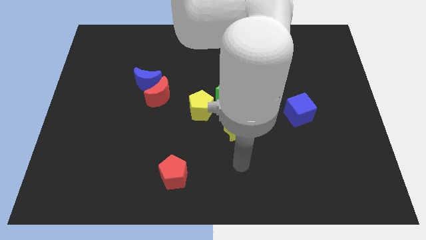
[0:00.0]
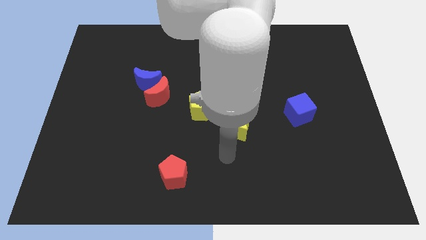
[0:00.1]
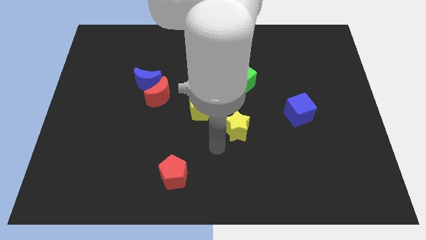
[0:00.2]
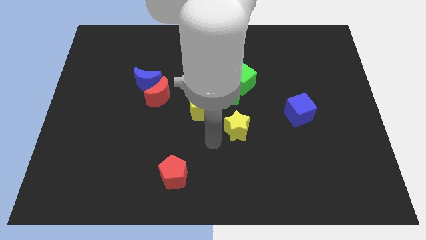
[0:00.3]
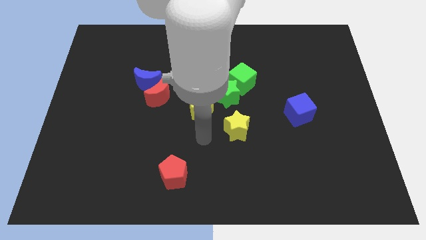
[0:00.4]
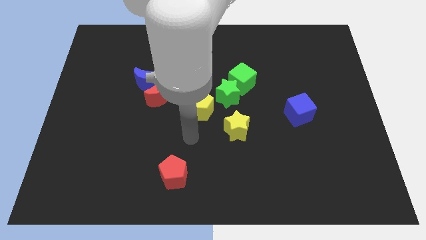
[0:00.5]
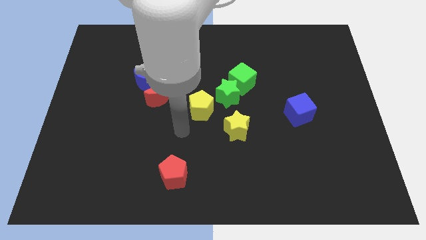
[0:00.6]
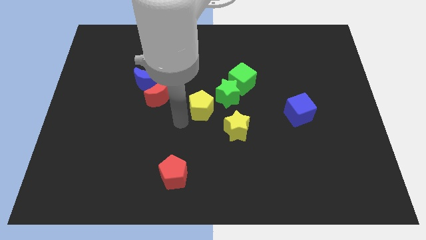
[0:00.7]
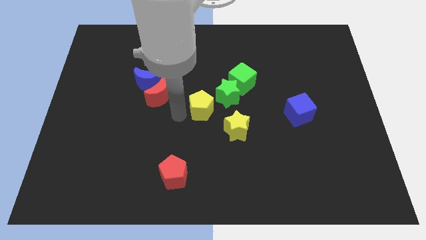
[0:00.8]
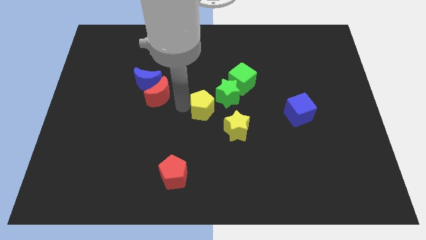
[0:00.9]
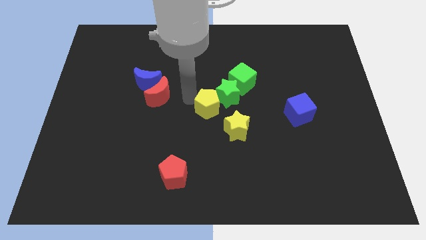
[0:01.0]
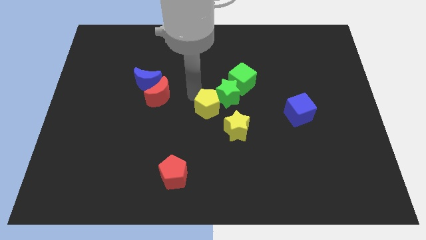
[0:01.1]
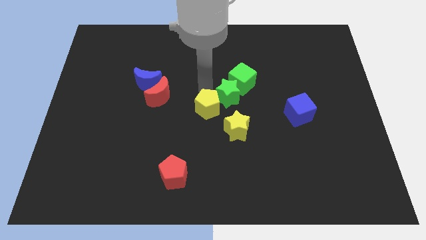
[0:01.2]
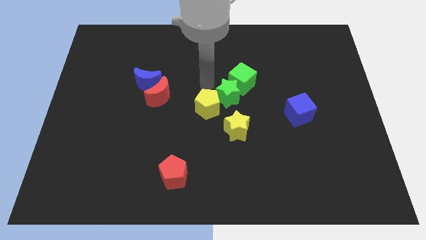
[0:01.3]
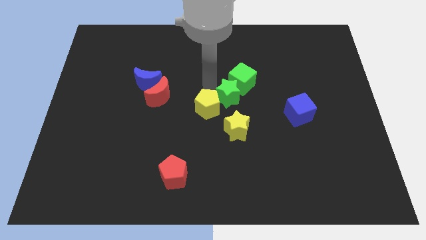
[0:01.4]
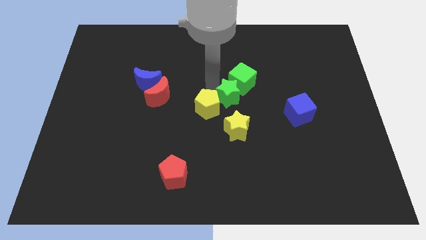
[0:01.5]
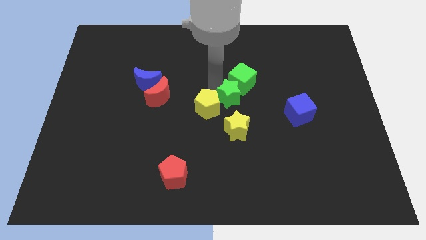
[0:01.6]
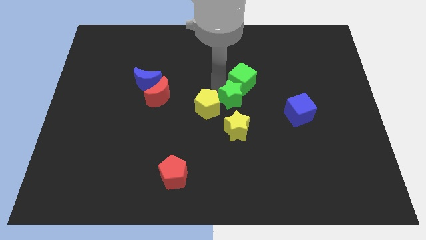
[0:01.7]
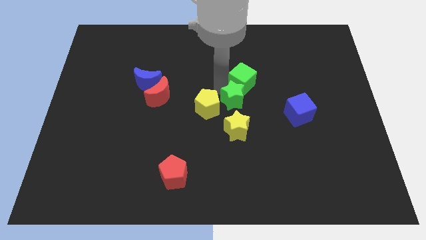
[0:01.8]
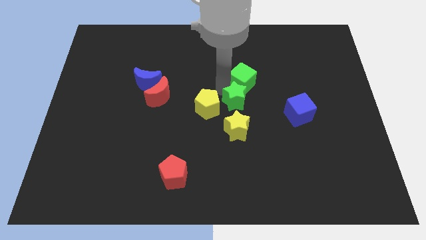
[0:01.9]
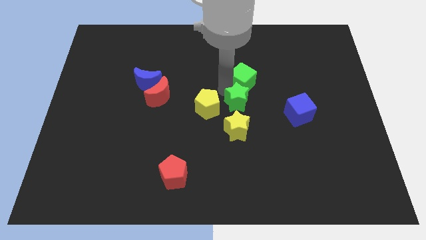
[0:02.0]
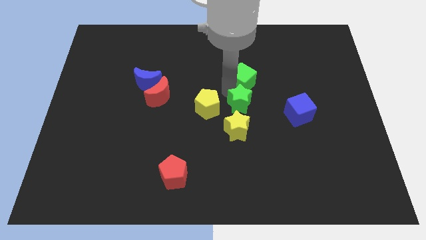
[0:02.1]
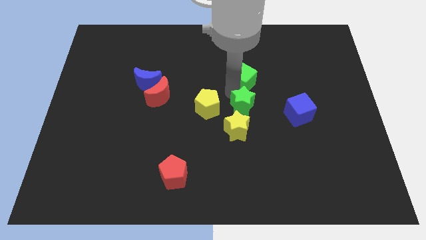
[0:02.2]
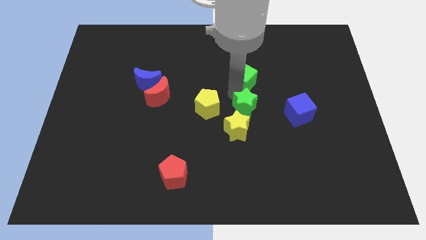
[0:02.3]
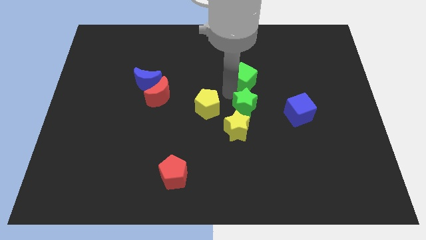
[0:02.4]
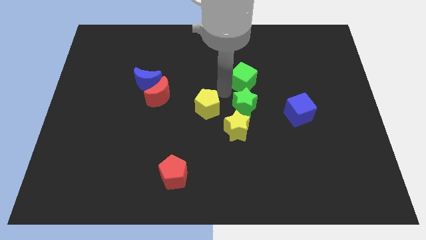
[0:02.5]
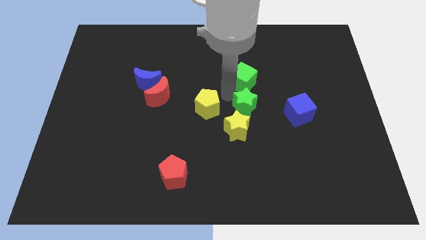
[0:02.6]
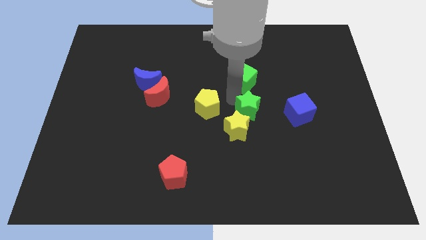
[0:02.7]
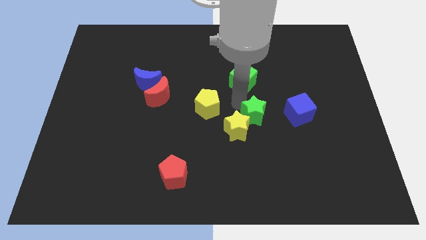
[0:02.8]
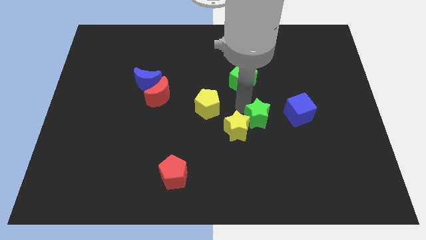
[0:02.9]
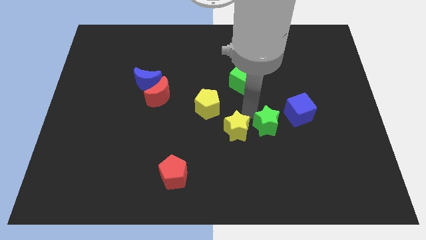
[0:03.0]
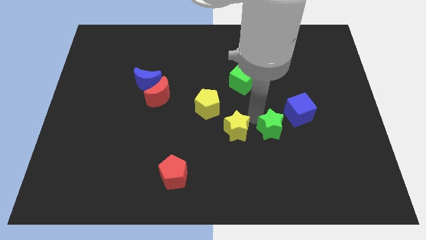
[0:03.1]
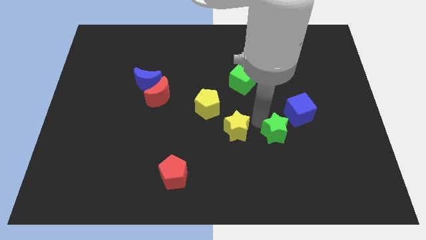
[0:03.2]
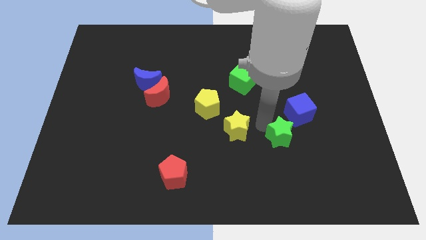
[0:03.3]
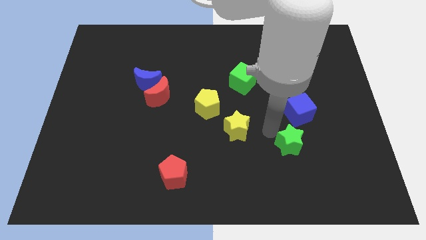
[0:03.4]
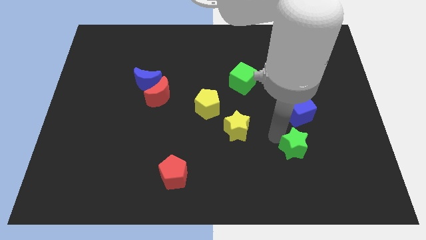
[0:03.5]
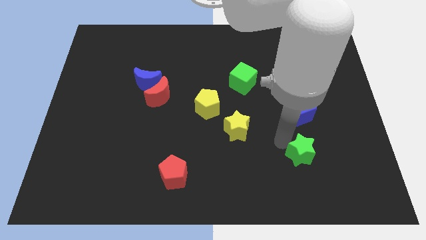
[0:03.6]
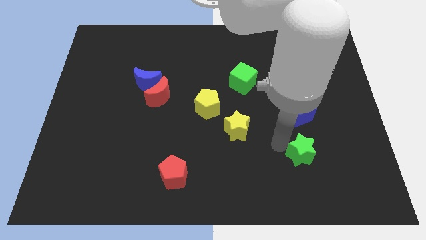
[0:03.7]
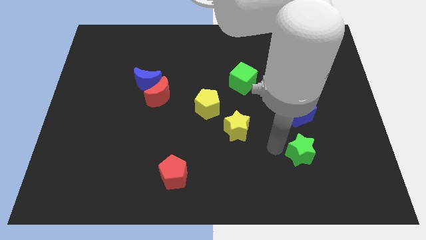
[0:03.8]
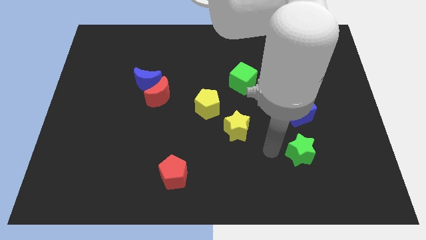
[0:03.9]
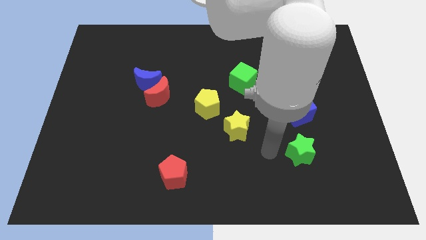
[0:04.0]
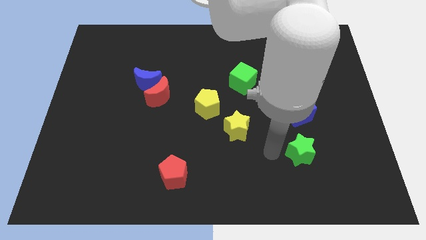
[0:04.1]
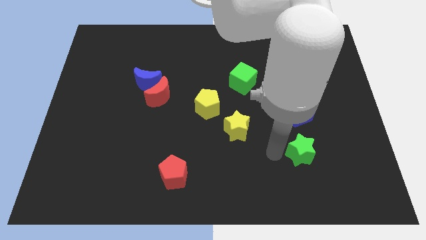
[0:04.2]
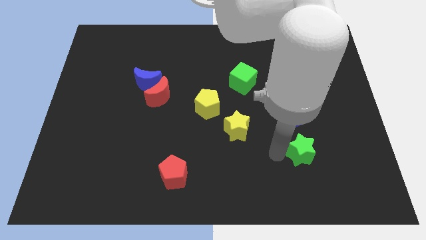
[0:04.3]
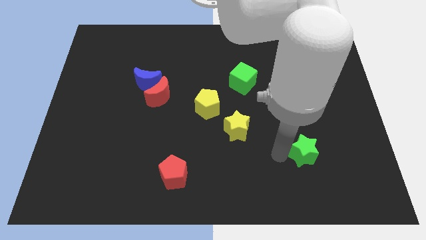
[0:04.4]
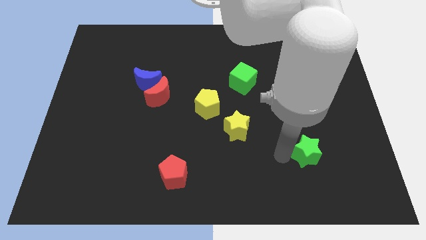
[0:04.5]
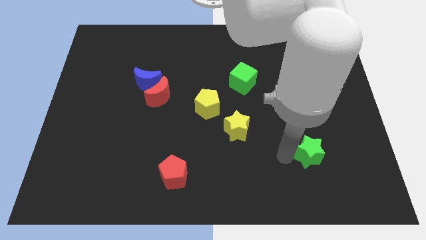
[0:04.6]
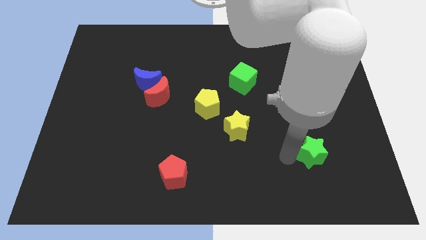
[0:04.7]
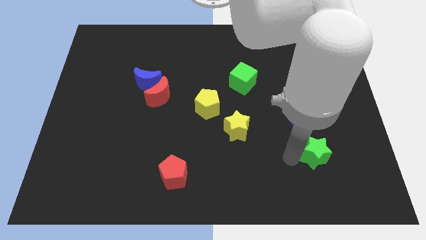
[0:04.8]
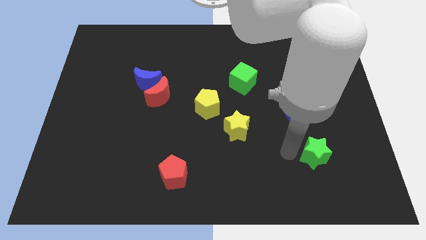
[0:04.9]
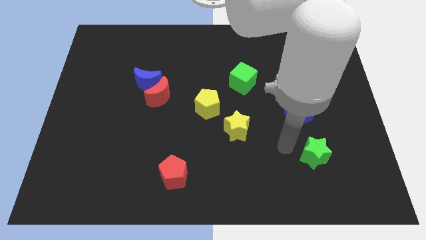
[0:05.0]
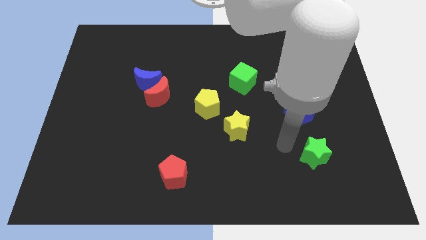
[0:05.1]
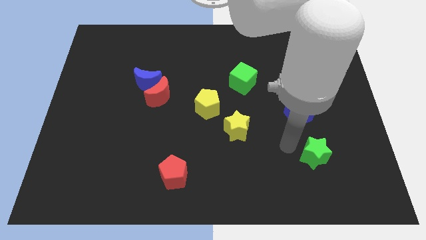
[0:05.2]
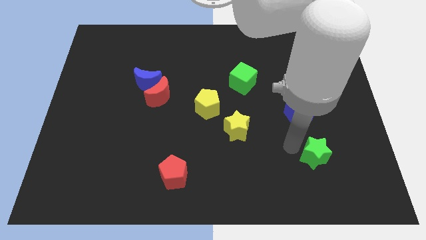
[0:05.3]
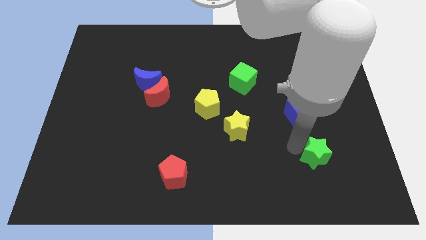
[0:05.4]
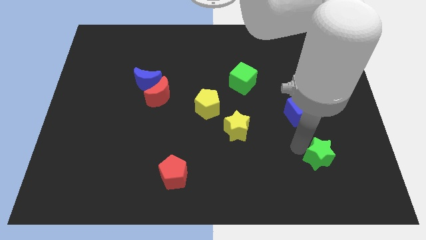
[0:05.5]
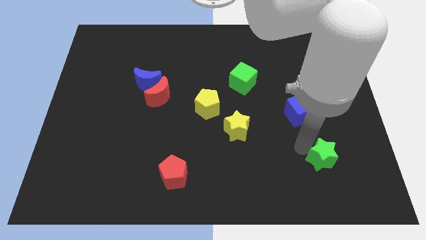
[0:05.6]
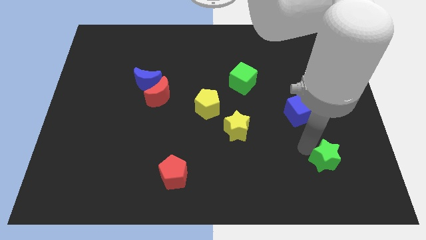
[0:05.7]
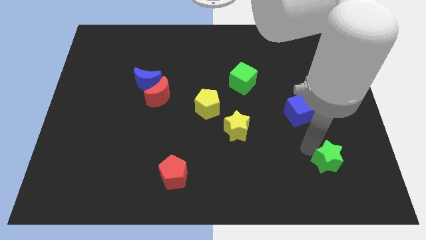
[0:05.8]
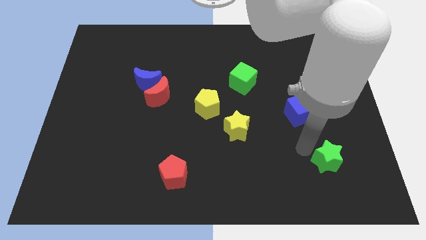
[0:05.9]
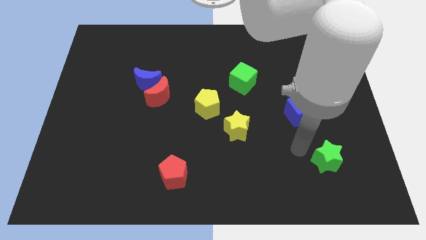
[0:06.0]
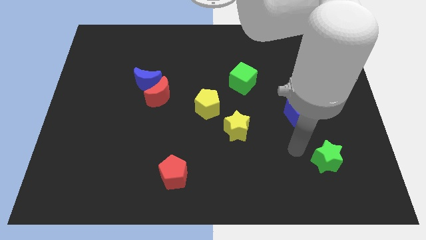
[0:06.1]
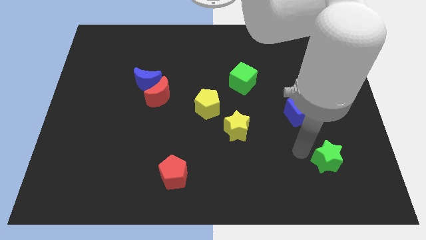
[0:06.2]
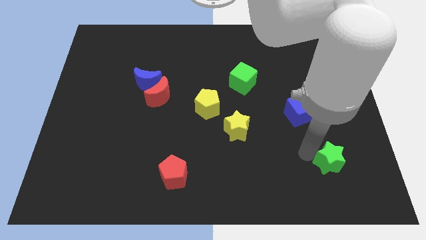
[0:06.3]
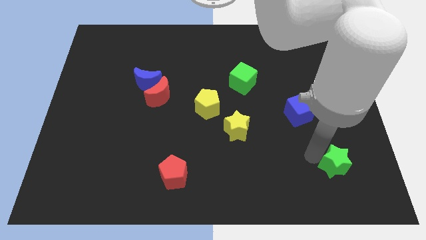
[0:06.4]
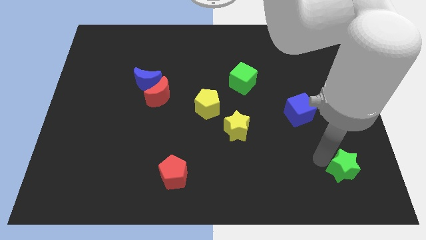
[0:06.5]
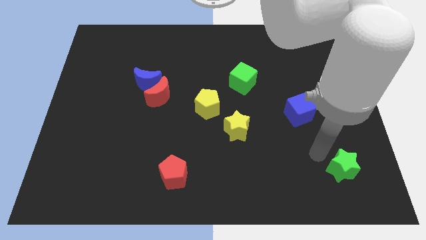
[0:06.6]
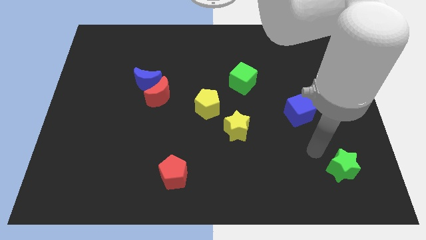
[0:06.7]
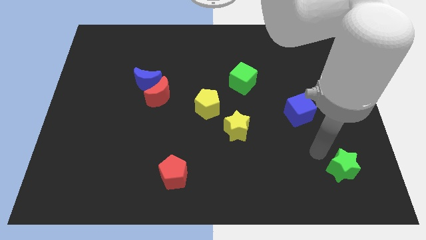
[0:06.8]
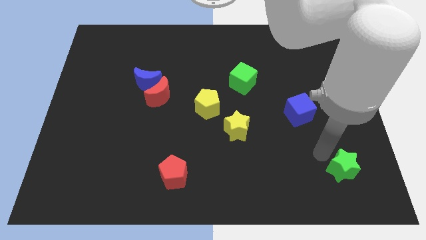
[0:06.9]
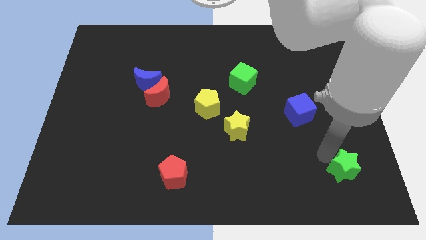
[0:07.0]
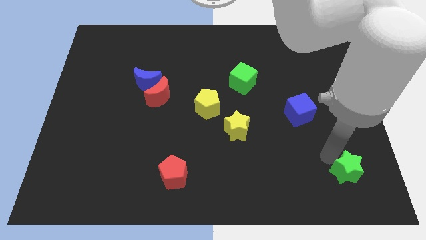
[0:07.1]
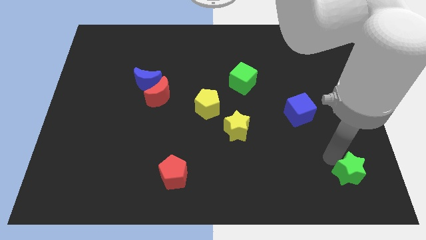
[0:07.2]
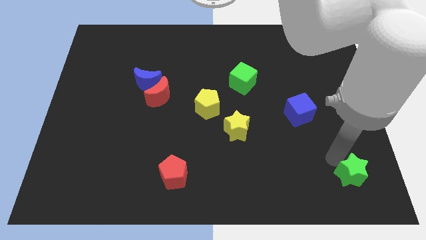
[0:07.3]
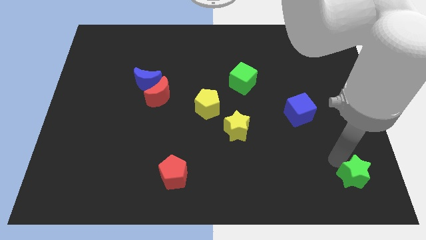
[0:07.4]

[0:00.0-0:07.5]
push the green star to the bottom right
